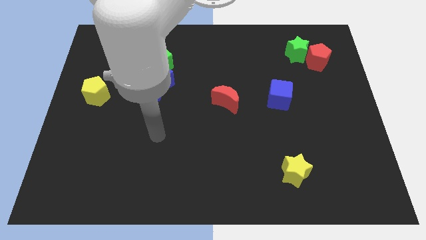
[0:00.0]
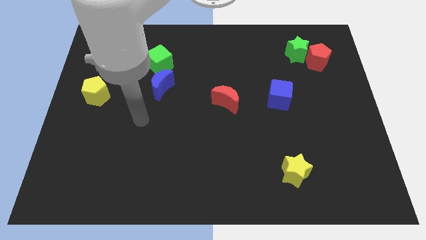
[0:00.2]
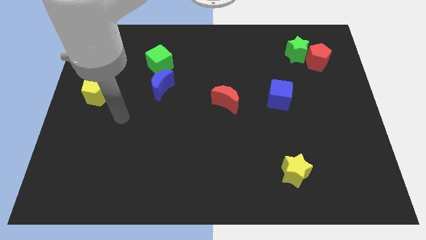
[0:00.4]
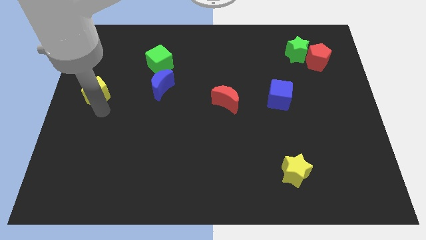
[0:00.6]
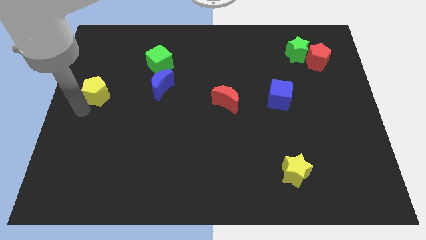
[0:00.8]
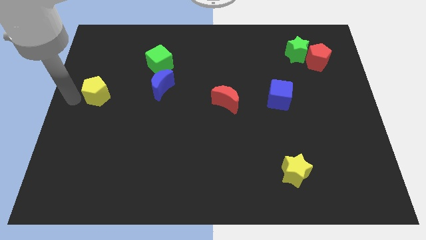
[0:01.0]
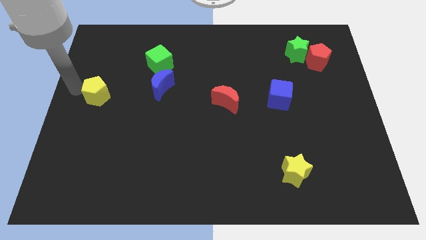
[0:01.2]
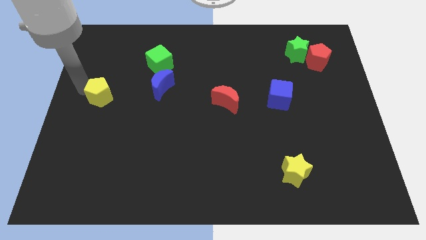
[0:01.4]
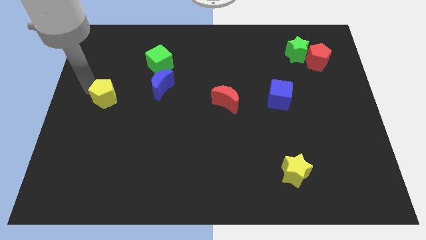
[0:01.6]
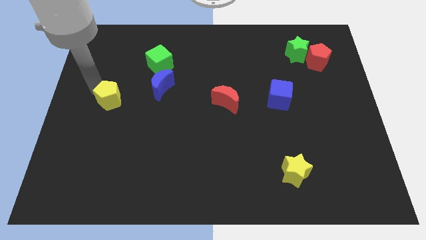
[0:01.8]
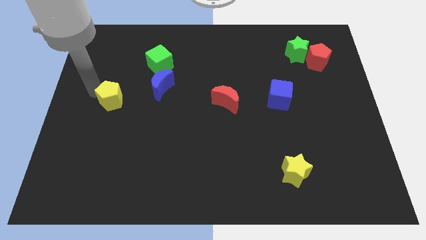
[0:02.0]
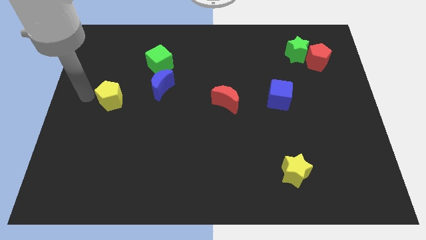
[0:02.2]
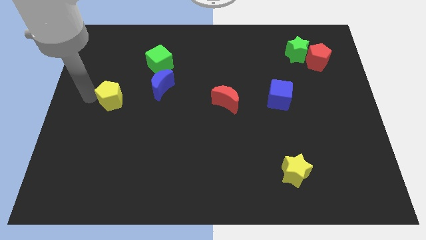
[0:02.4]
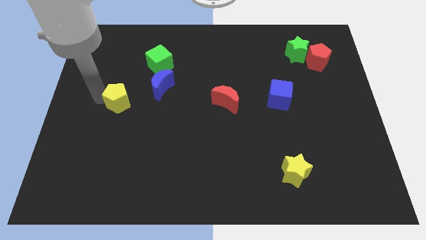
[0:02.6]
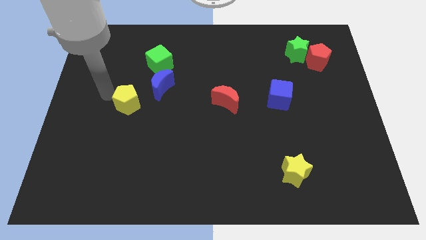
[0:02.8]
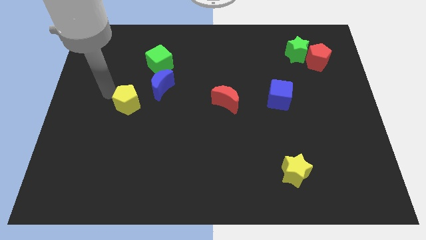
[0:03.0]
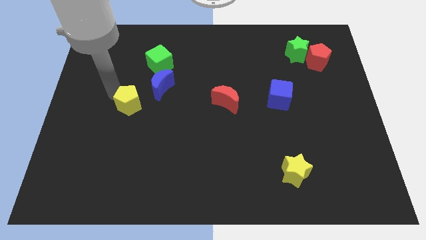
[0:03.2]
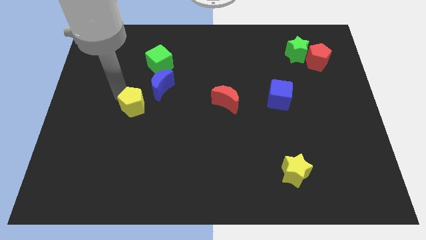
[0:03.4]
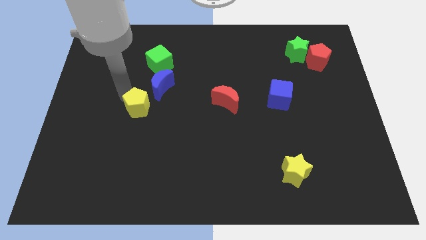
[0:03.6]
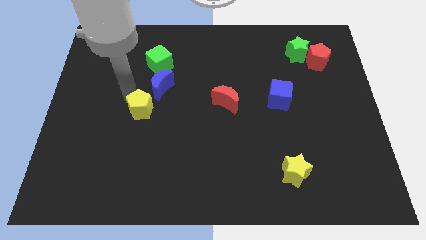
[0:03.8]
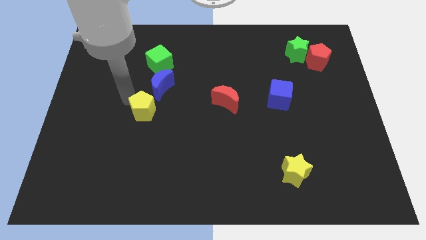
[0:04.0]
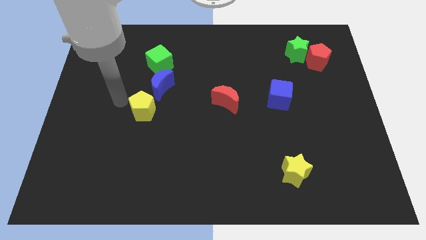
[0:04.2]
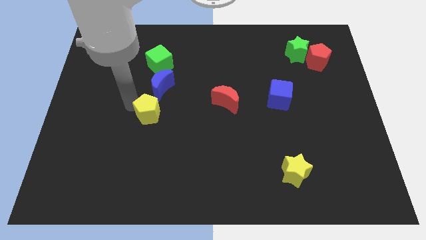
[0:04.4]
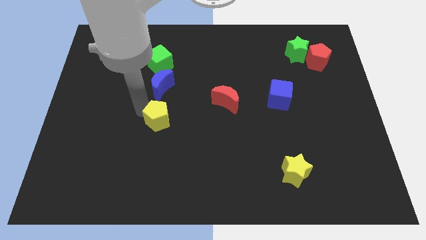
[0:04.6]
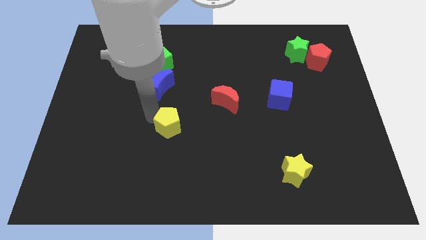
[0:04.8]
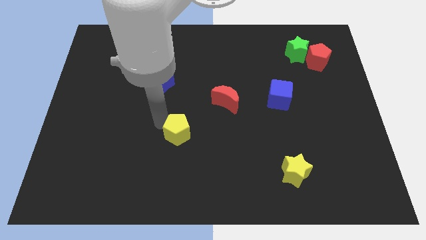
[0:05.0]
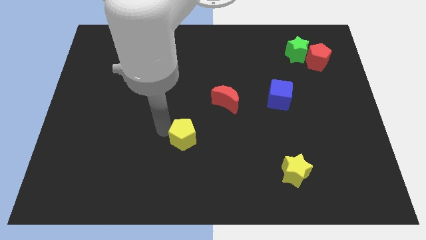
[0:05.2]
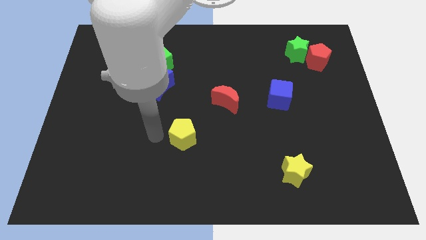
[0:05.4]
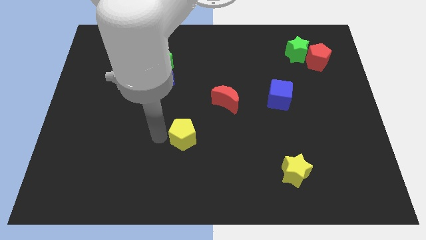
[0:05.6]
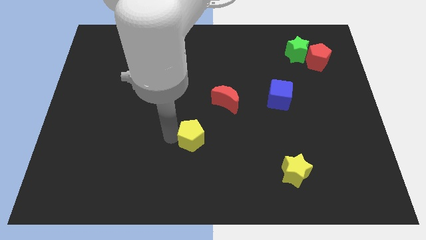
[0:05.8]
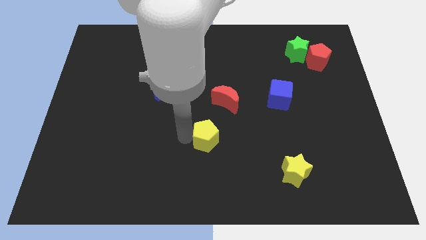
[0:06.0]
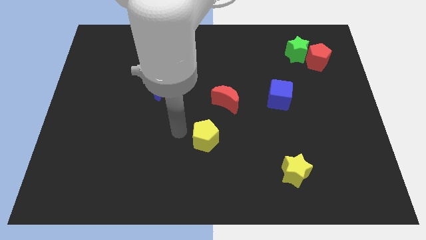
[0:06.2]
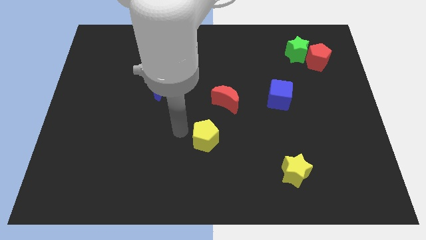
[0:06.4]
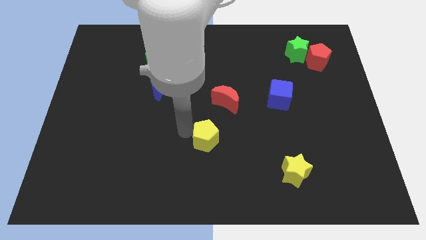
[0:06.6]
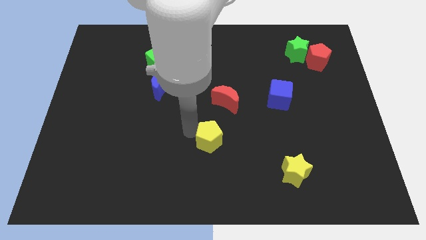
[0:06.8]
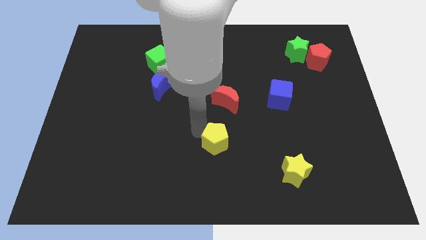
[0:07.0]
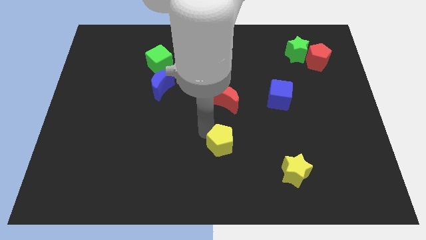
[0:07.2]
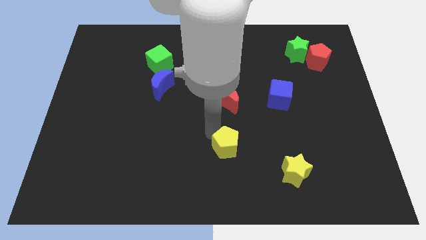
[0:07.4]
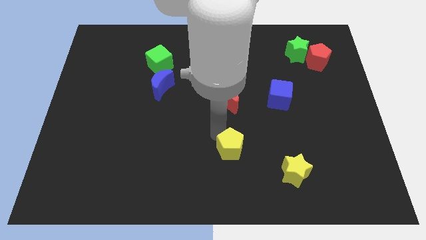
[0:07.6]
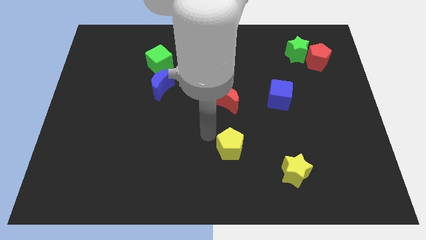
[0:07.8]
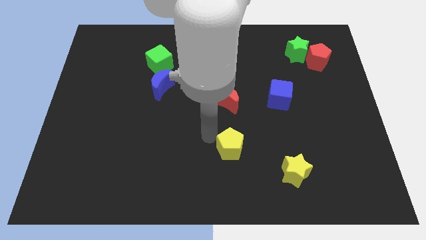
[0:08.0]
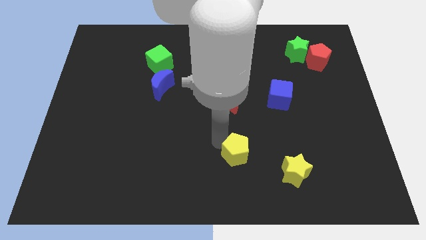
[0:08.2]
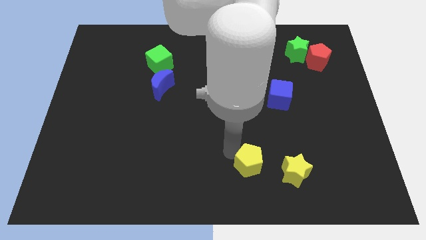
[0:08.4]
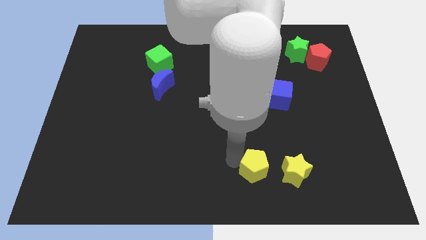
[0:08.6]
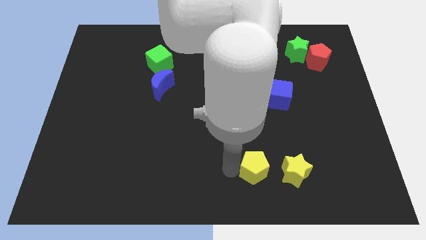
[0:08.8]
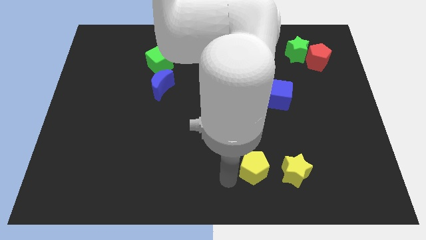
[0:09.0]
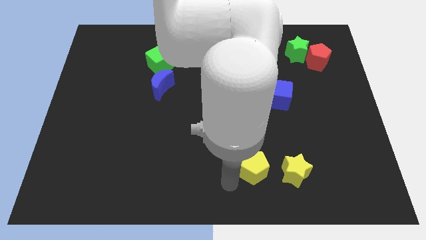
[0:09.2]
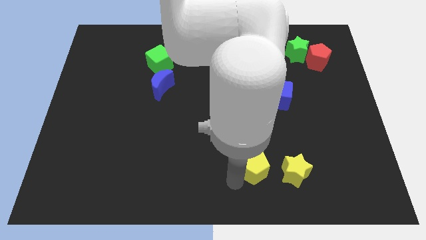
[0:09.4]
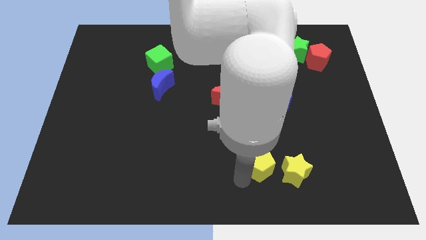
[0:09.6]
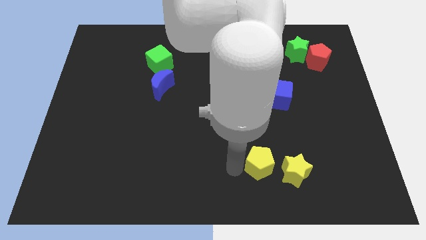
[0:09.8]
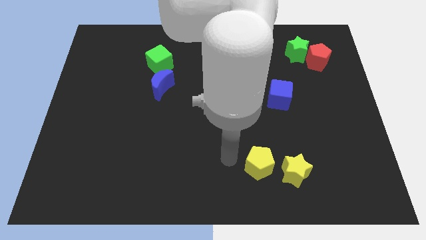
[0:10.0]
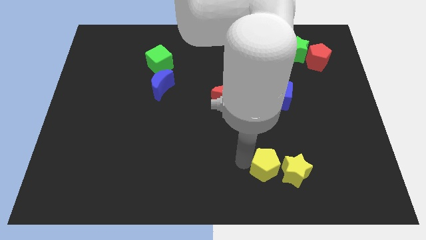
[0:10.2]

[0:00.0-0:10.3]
slide the yellow pentagon to the yellow star

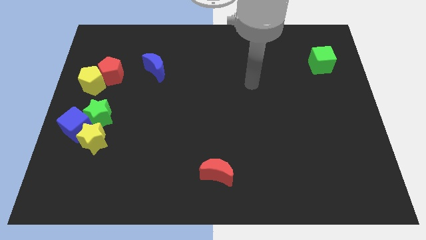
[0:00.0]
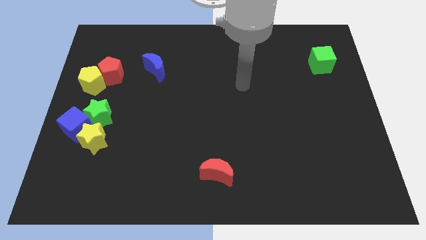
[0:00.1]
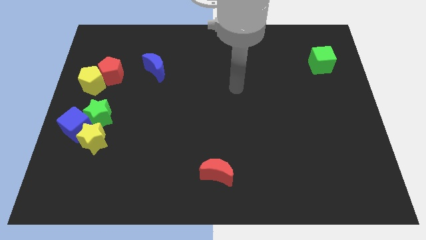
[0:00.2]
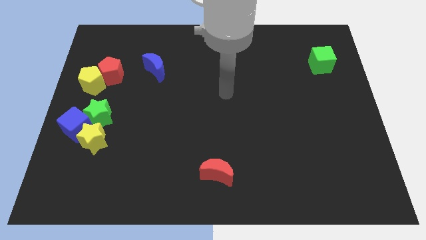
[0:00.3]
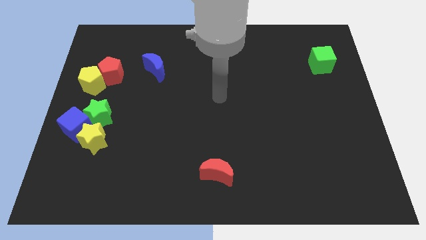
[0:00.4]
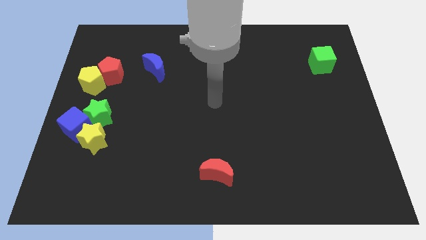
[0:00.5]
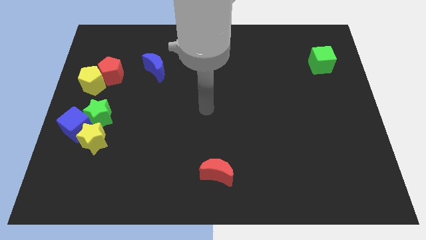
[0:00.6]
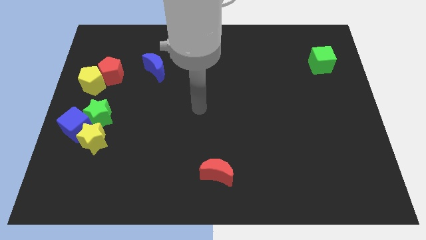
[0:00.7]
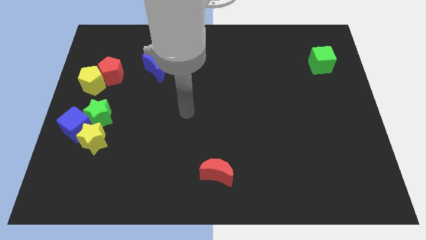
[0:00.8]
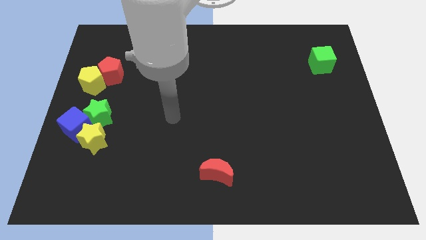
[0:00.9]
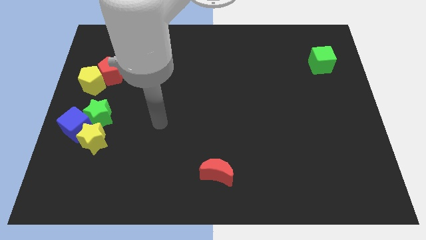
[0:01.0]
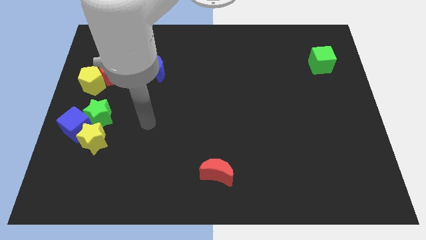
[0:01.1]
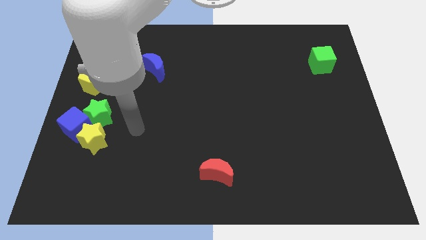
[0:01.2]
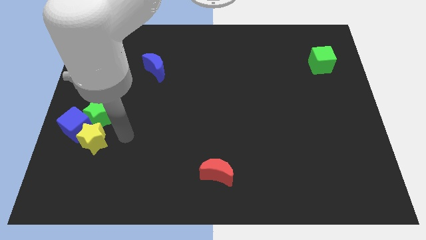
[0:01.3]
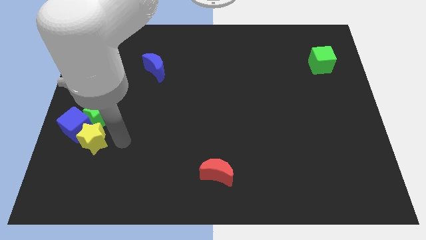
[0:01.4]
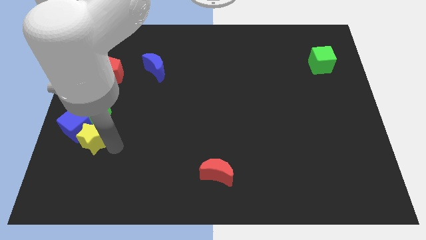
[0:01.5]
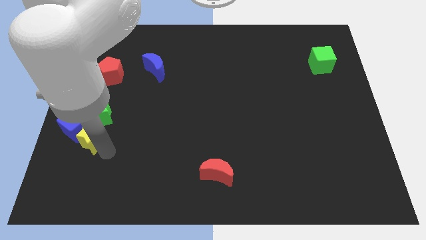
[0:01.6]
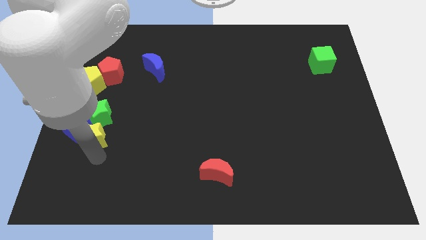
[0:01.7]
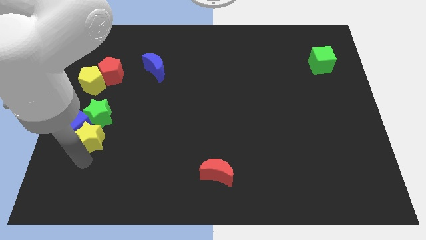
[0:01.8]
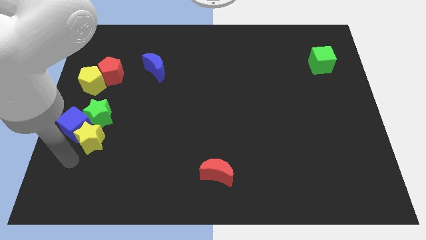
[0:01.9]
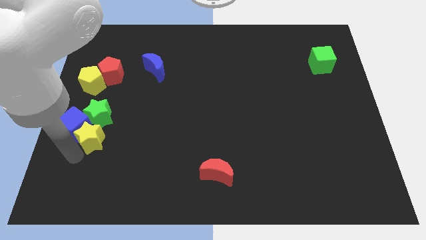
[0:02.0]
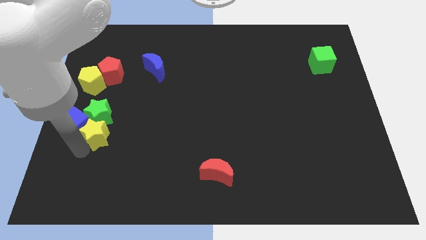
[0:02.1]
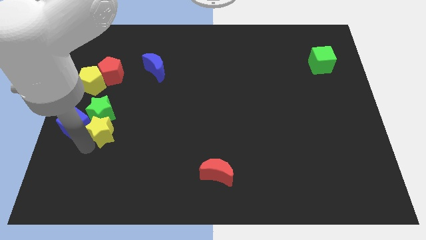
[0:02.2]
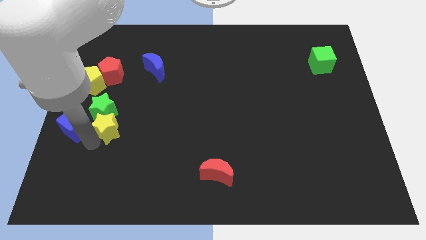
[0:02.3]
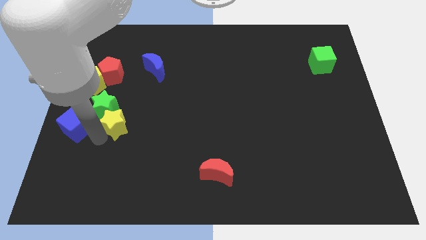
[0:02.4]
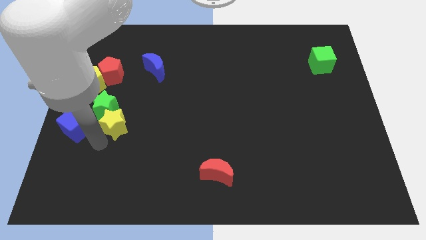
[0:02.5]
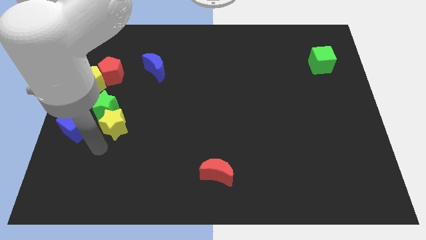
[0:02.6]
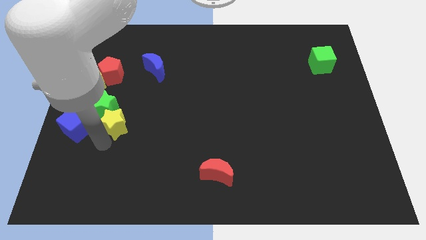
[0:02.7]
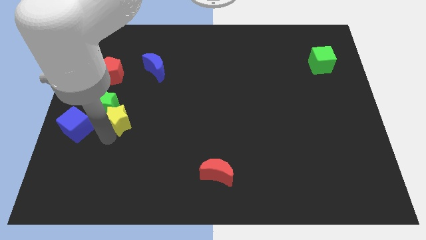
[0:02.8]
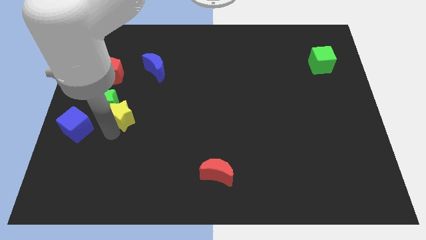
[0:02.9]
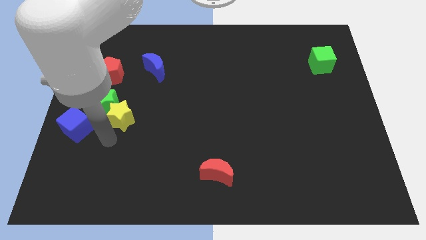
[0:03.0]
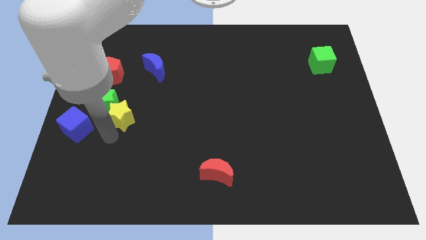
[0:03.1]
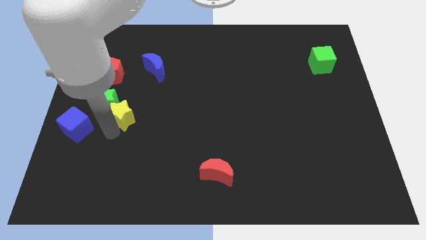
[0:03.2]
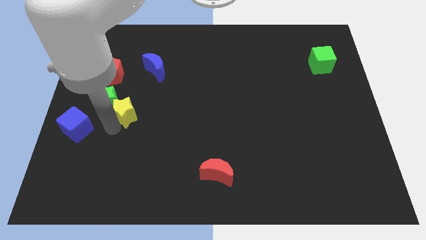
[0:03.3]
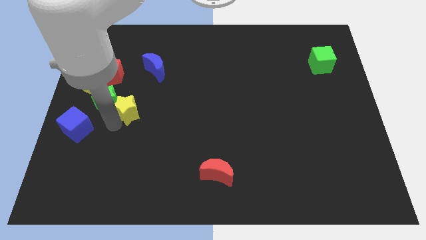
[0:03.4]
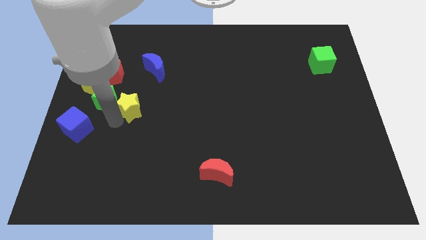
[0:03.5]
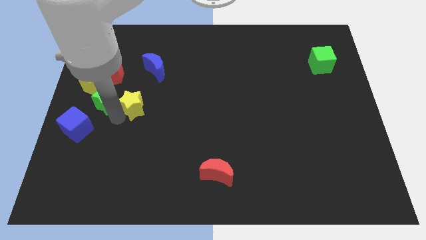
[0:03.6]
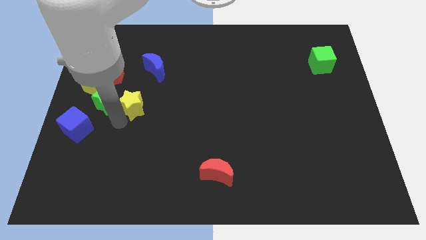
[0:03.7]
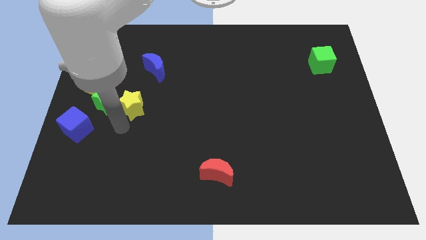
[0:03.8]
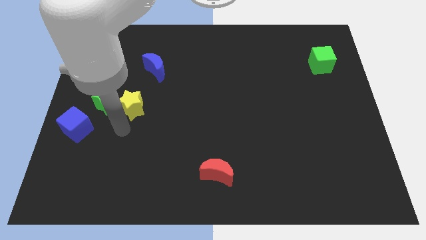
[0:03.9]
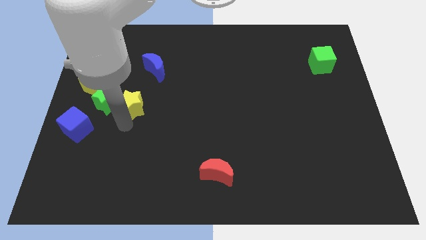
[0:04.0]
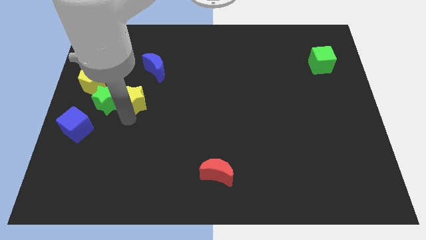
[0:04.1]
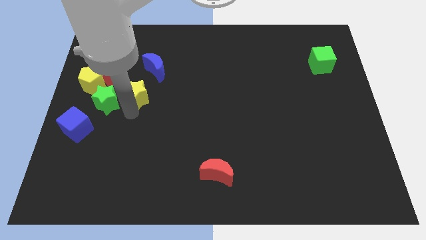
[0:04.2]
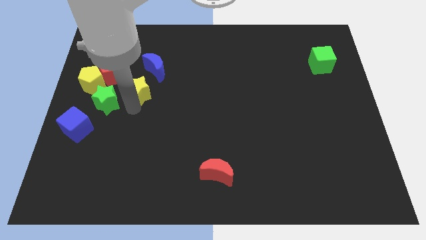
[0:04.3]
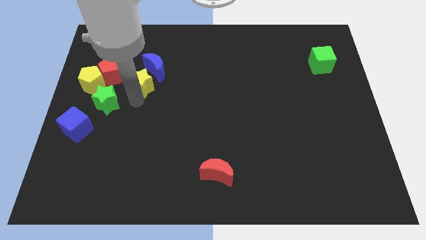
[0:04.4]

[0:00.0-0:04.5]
slide the yellow star towards the blue moon
